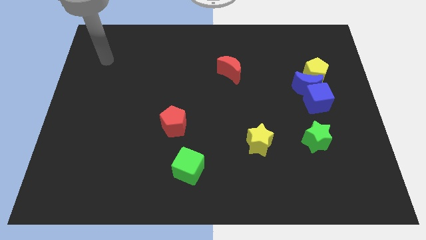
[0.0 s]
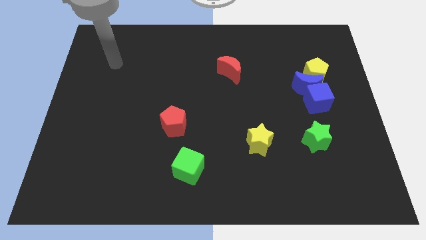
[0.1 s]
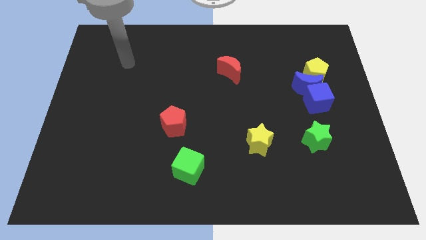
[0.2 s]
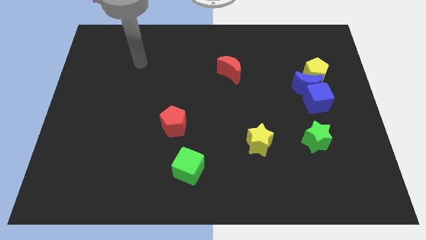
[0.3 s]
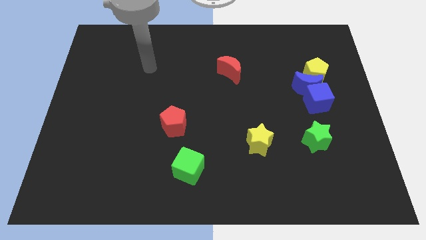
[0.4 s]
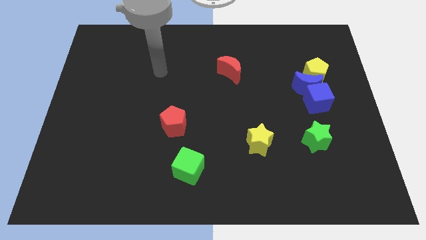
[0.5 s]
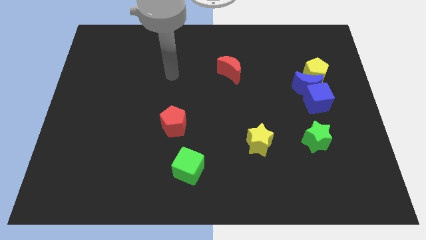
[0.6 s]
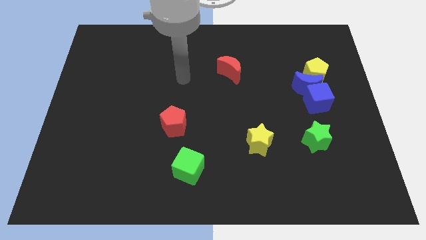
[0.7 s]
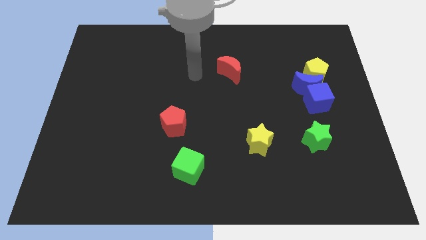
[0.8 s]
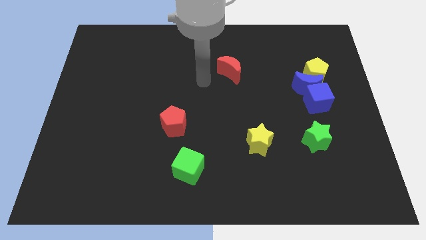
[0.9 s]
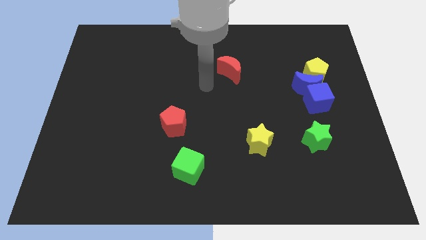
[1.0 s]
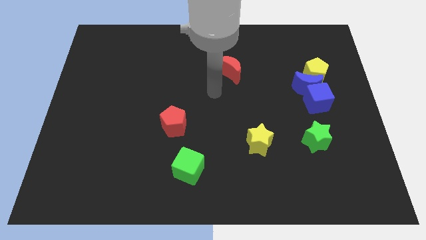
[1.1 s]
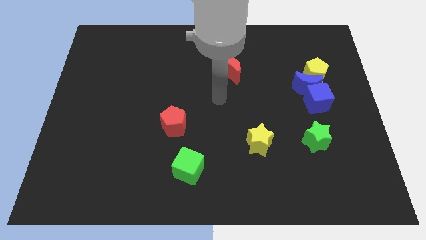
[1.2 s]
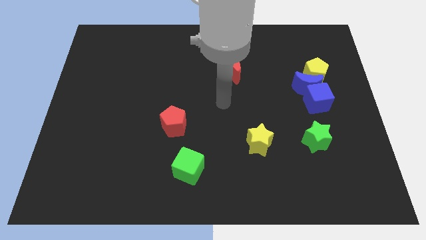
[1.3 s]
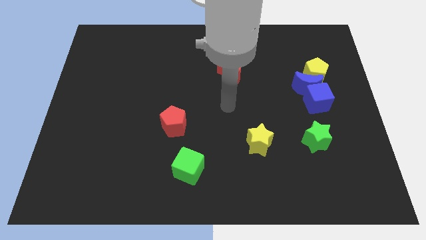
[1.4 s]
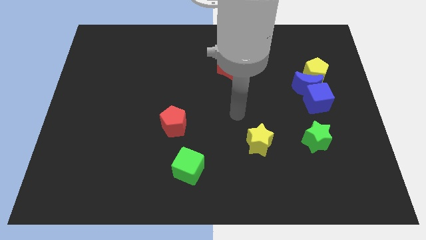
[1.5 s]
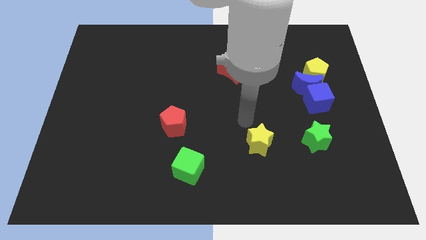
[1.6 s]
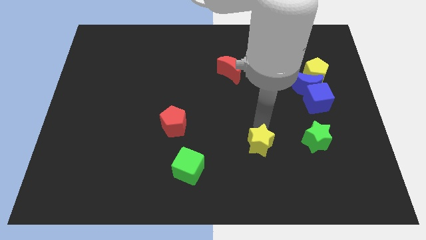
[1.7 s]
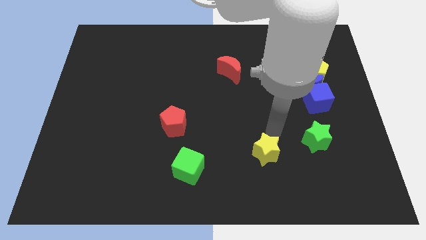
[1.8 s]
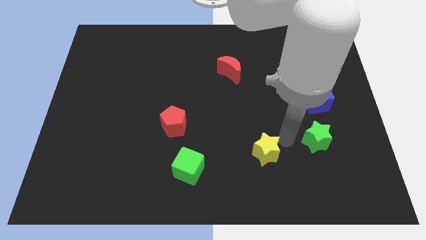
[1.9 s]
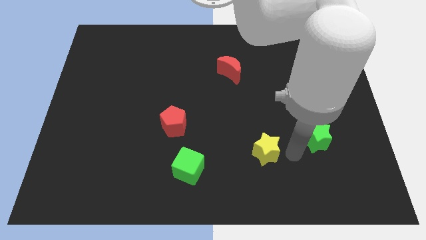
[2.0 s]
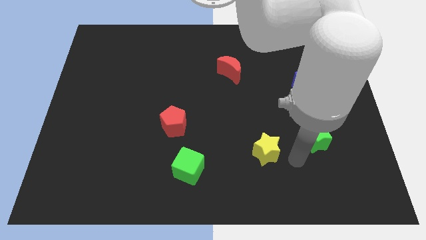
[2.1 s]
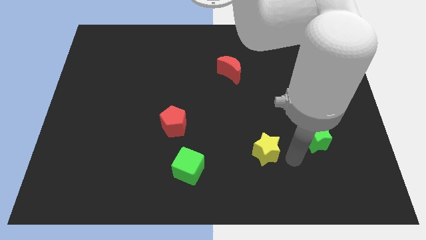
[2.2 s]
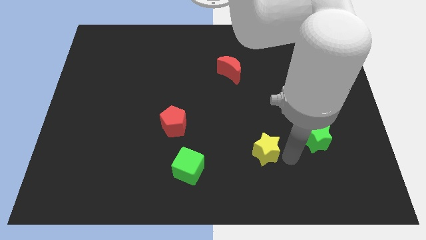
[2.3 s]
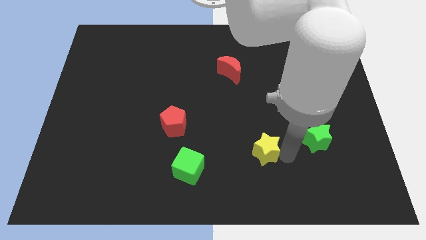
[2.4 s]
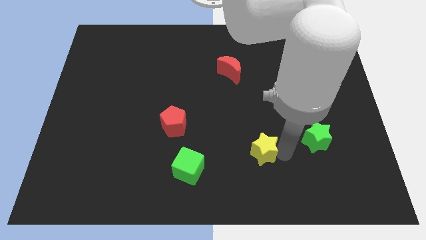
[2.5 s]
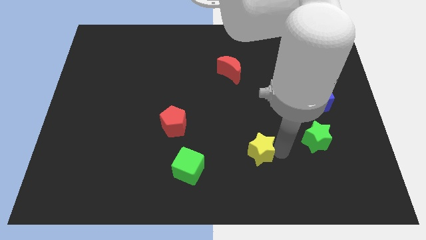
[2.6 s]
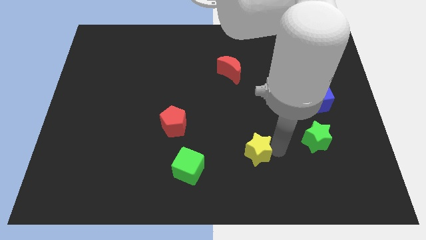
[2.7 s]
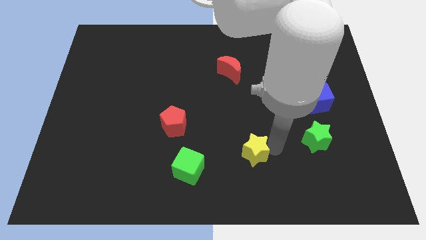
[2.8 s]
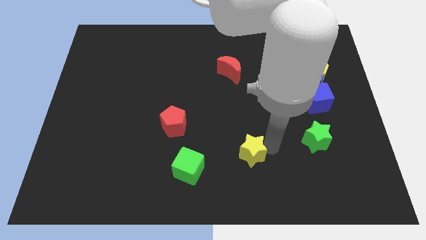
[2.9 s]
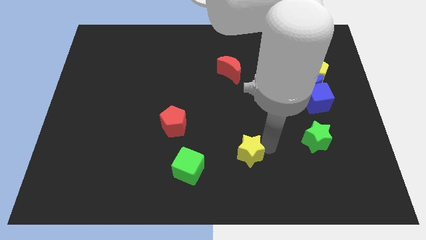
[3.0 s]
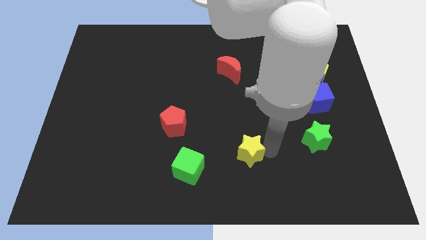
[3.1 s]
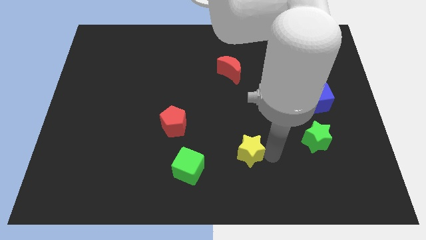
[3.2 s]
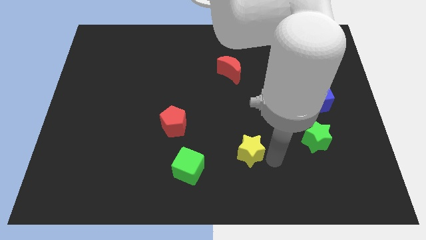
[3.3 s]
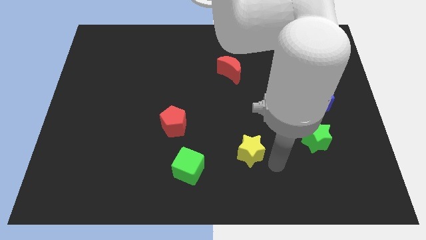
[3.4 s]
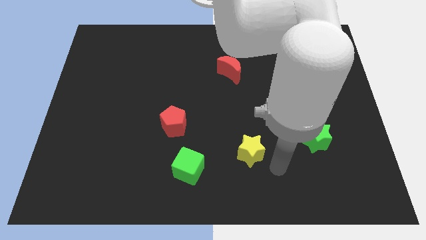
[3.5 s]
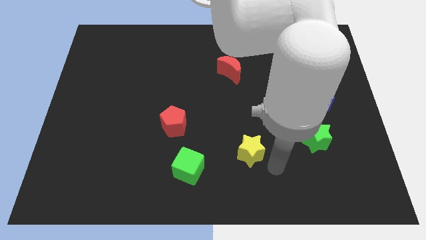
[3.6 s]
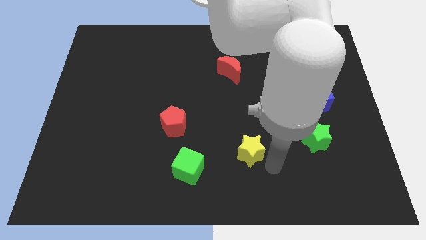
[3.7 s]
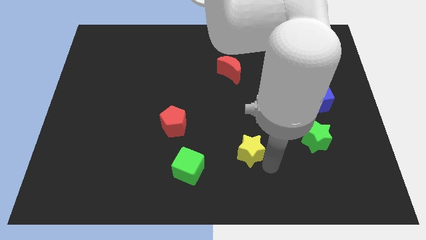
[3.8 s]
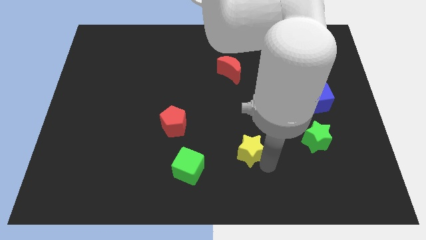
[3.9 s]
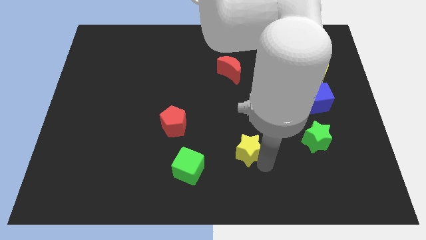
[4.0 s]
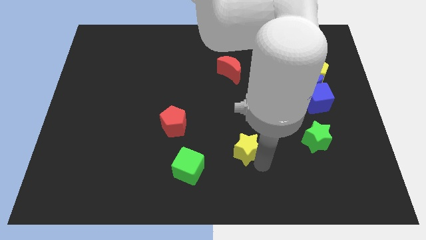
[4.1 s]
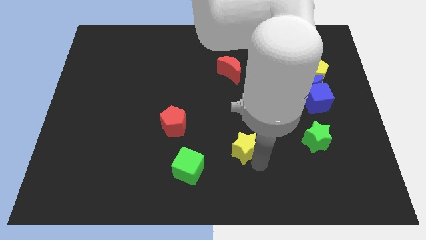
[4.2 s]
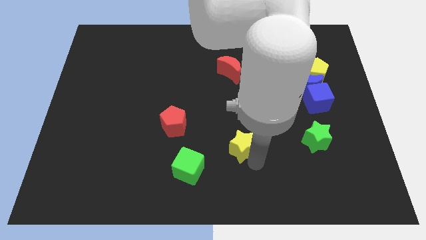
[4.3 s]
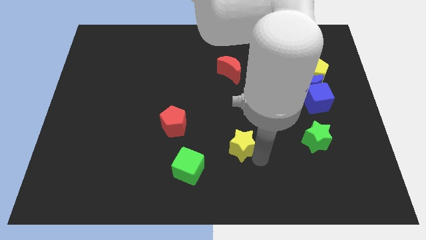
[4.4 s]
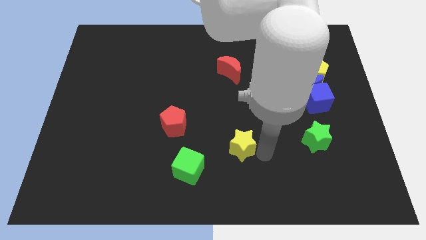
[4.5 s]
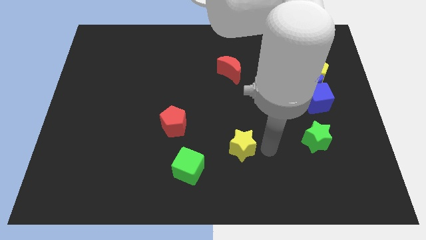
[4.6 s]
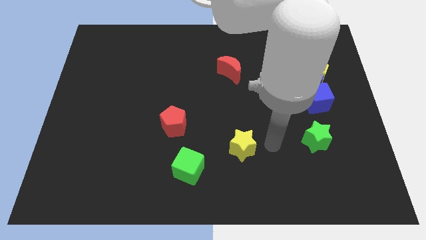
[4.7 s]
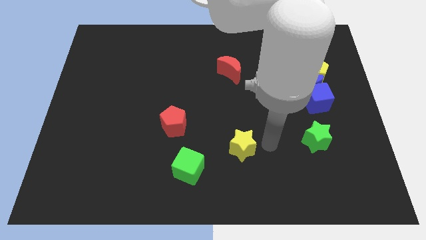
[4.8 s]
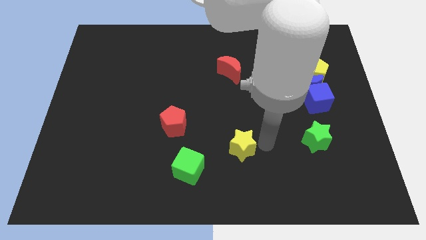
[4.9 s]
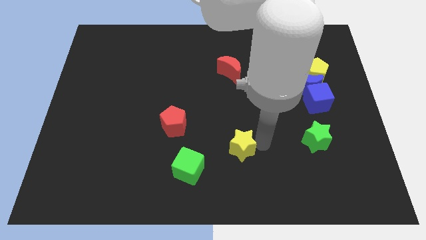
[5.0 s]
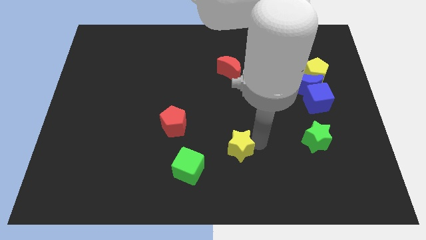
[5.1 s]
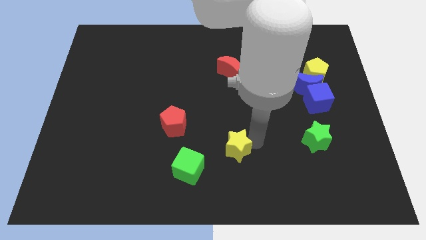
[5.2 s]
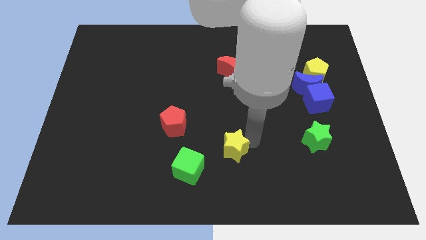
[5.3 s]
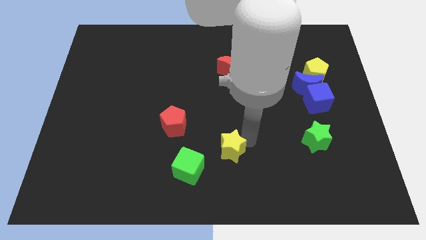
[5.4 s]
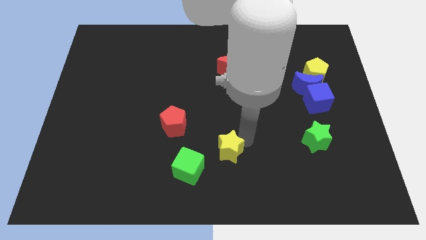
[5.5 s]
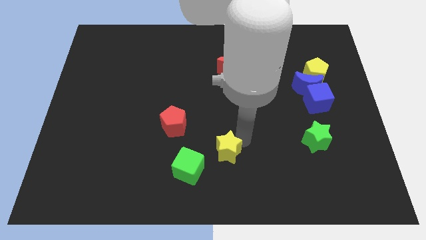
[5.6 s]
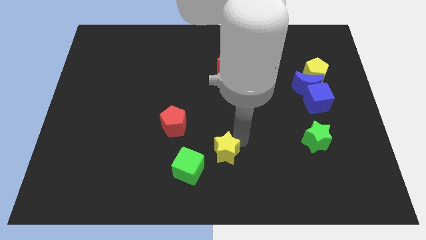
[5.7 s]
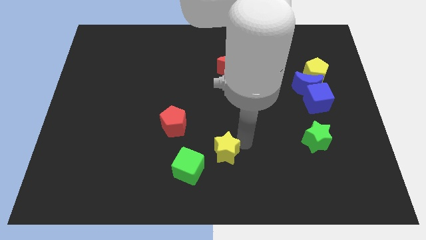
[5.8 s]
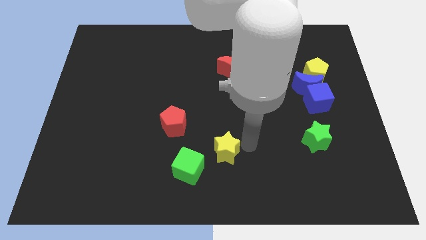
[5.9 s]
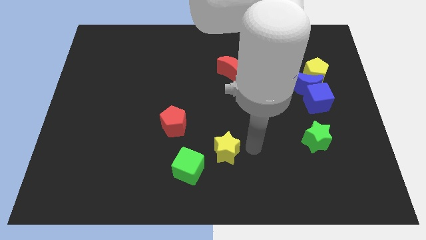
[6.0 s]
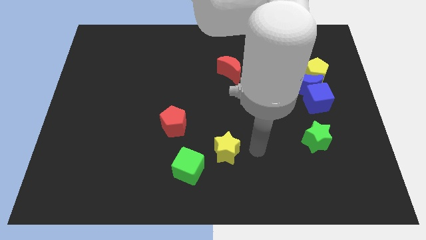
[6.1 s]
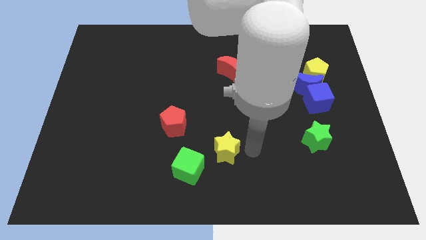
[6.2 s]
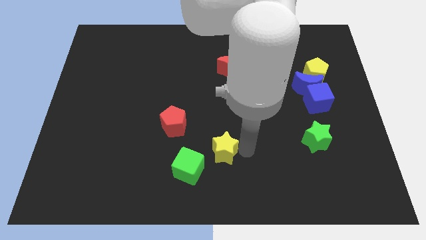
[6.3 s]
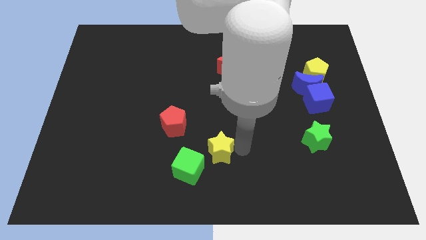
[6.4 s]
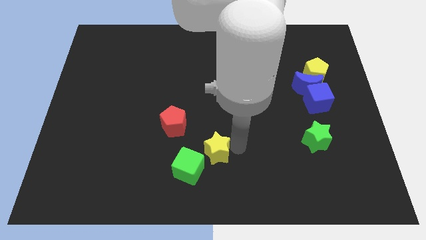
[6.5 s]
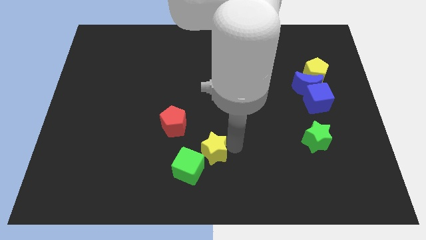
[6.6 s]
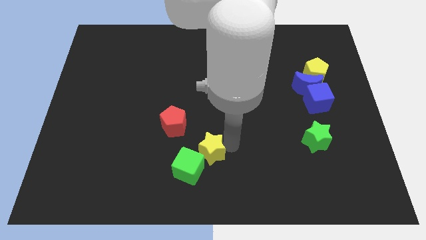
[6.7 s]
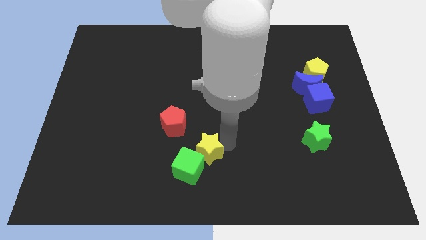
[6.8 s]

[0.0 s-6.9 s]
push the yellow star next to the green cube
